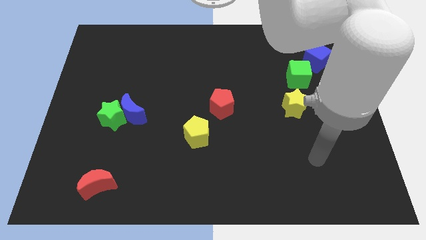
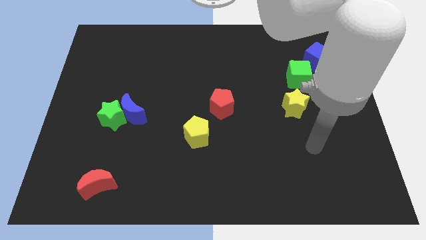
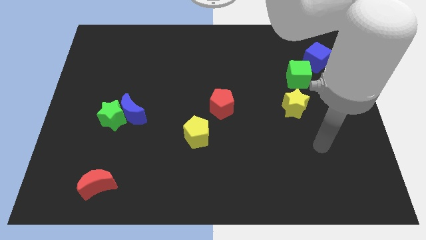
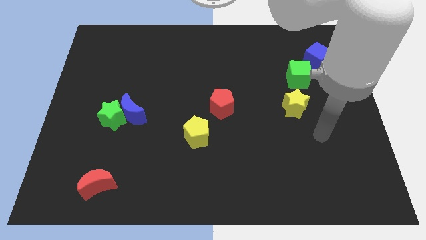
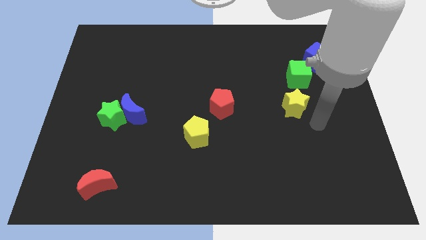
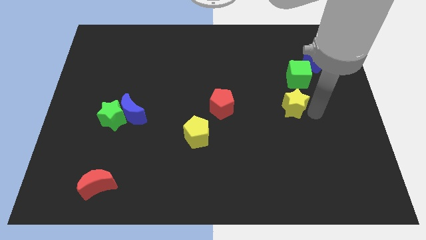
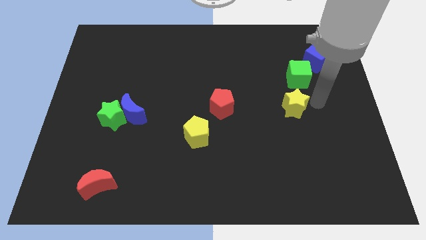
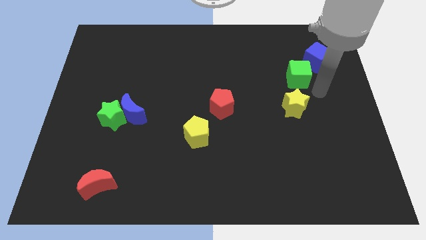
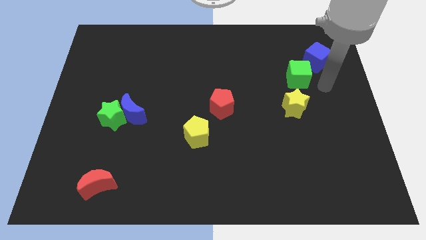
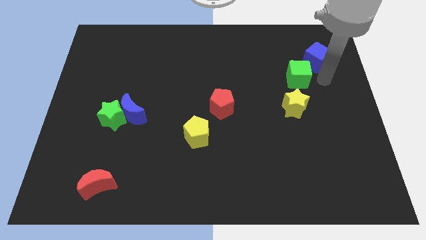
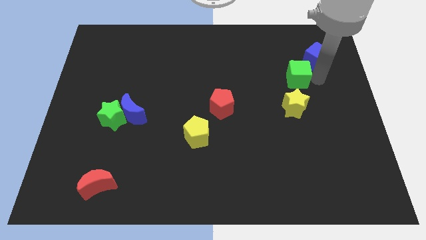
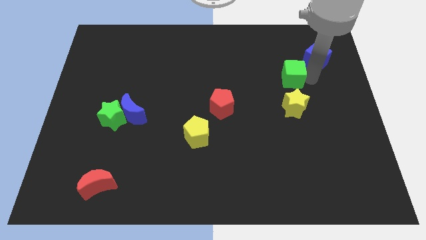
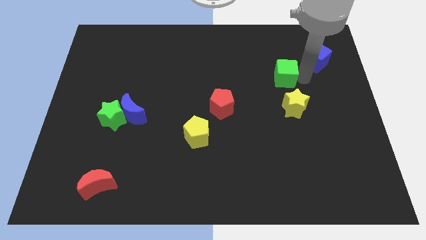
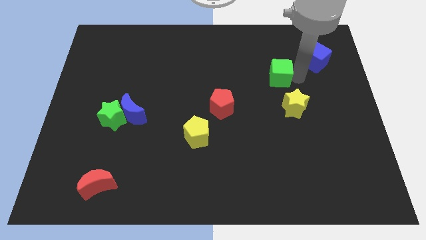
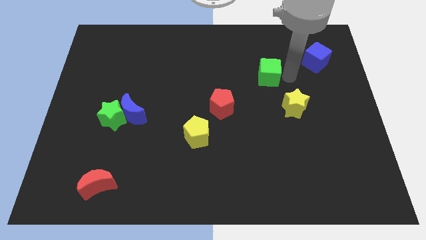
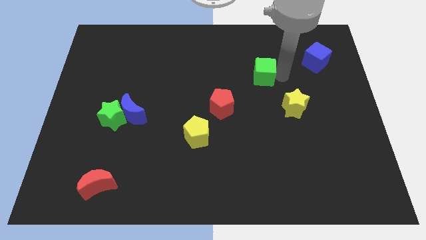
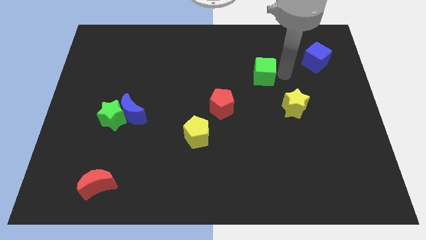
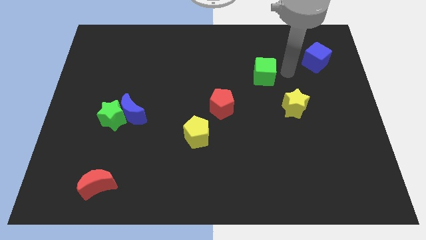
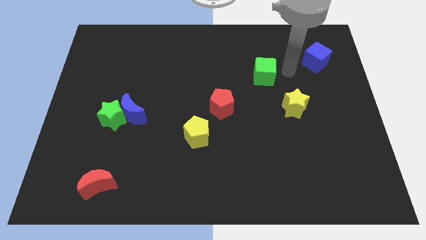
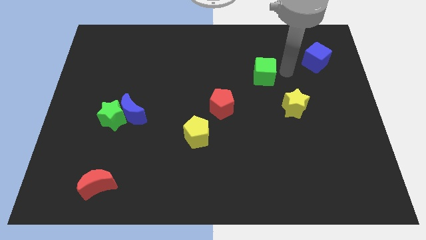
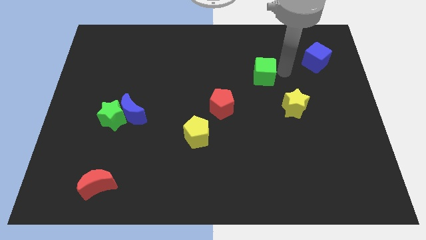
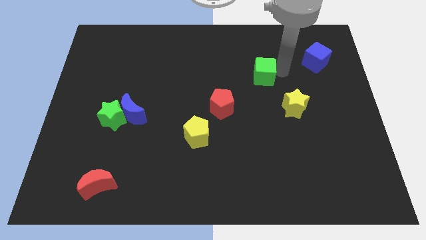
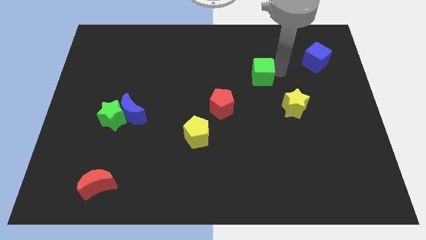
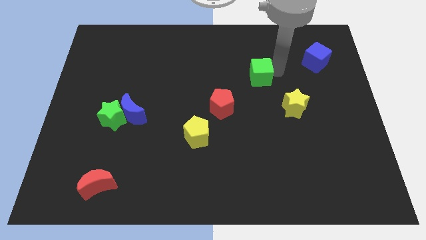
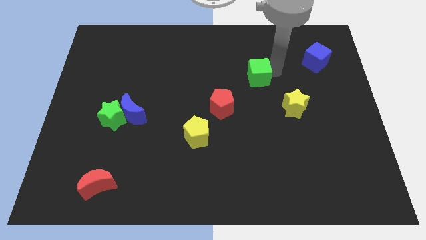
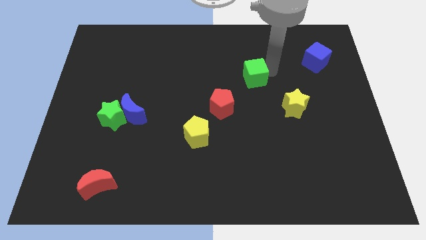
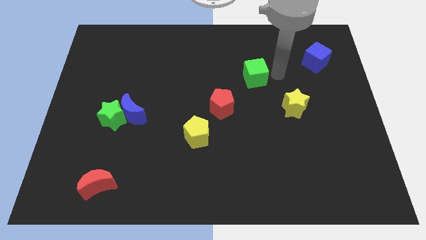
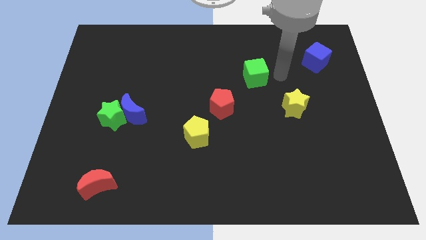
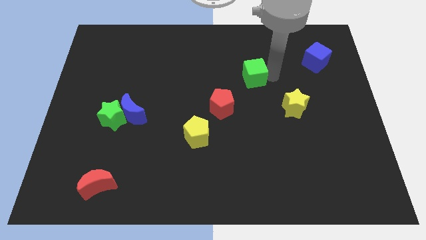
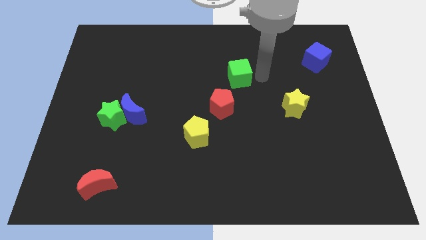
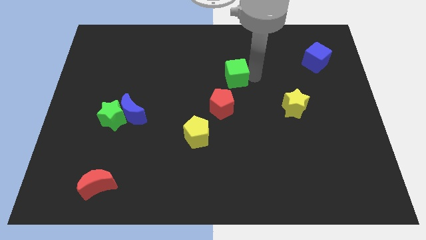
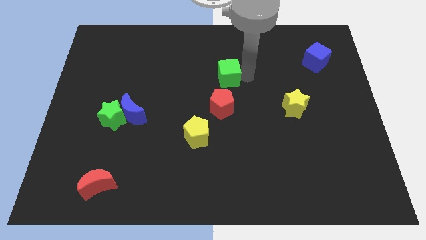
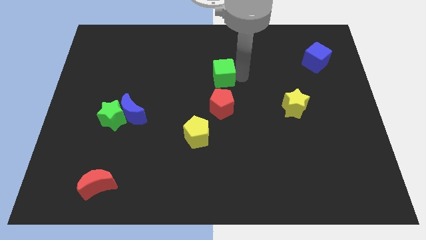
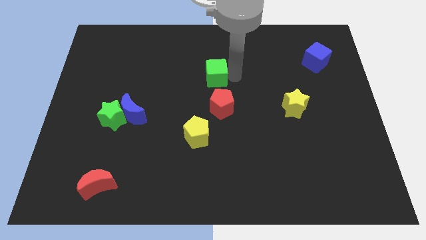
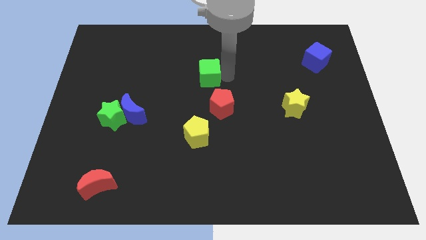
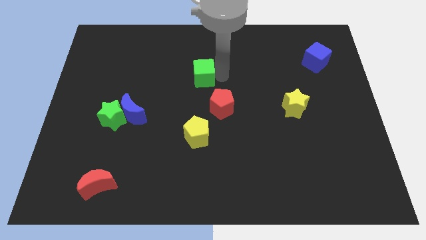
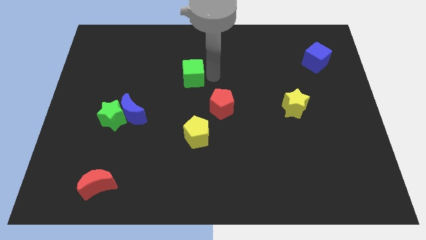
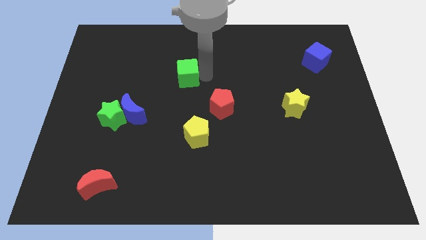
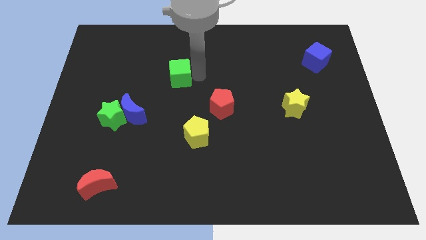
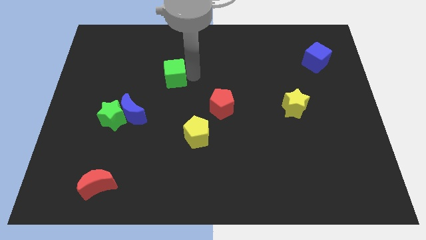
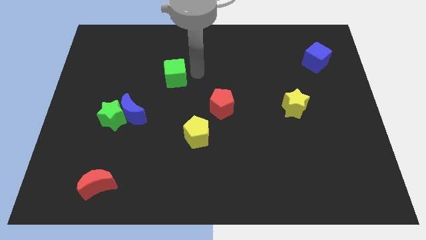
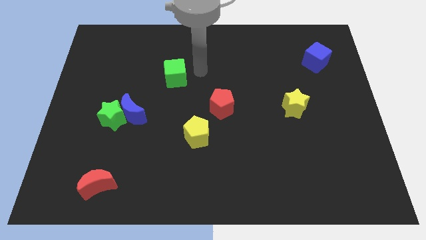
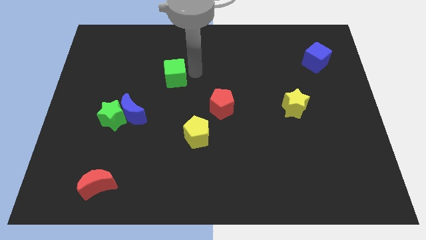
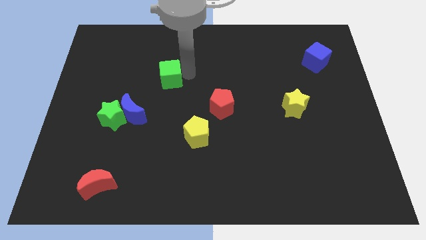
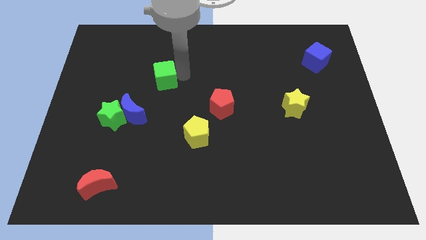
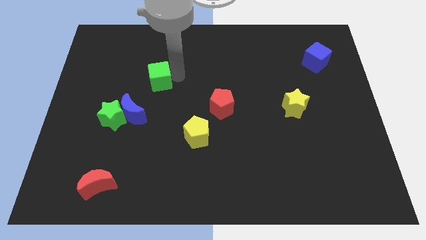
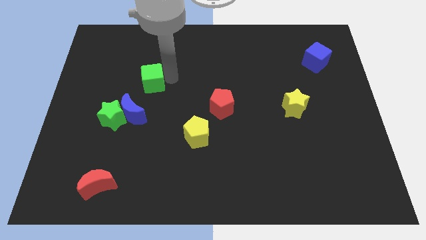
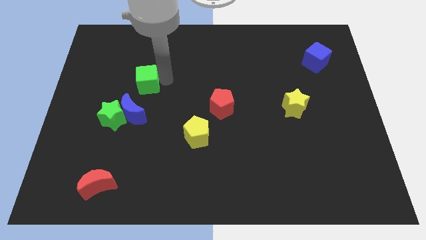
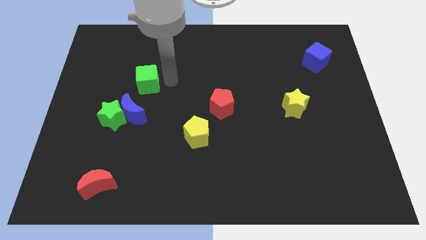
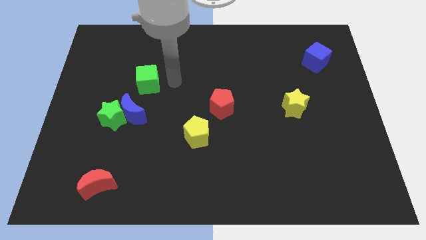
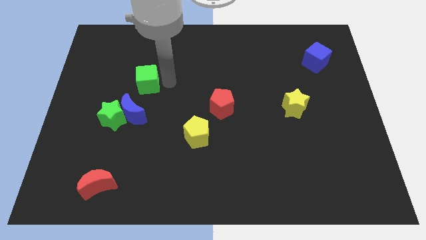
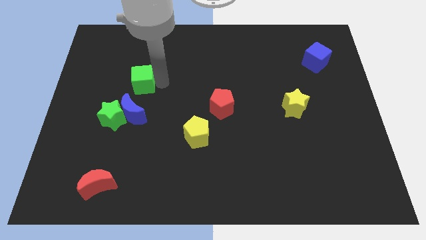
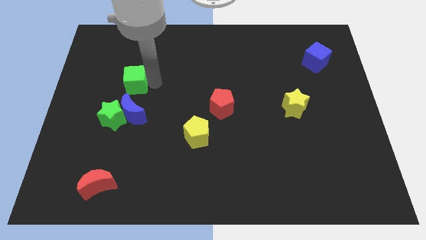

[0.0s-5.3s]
push the green cube above the green star

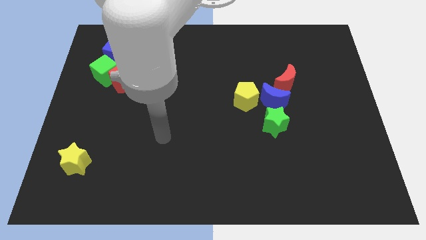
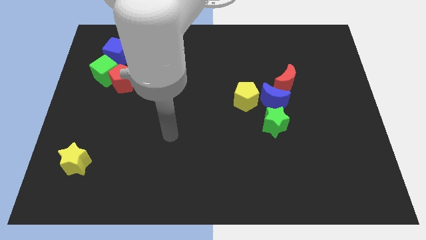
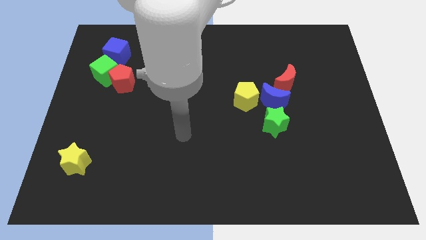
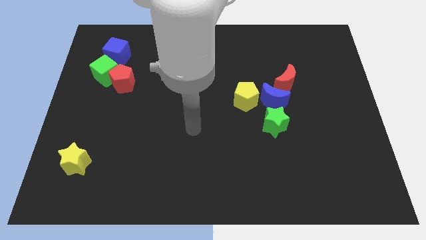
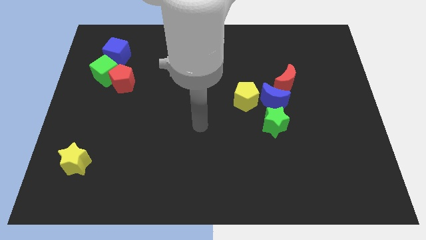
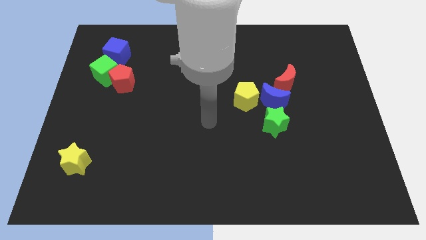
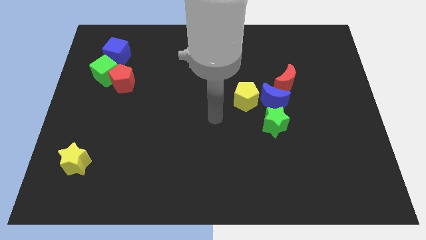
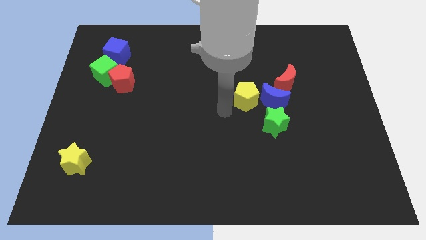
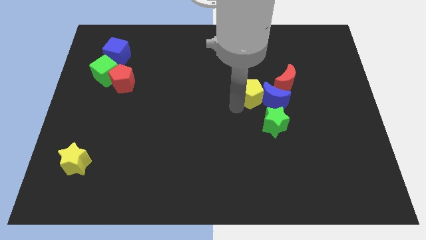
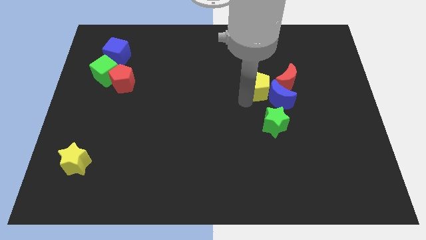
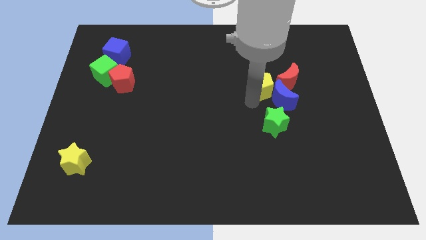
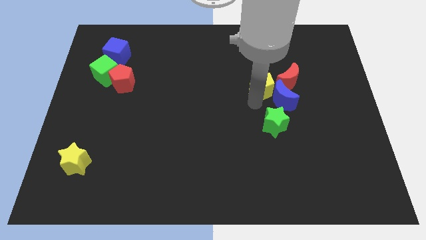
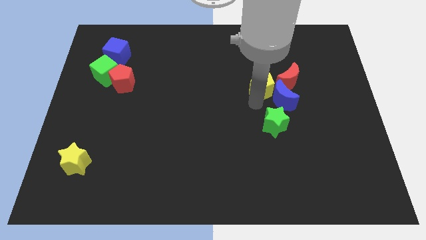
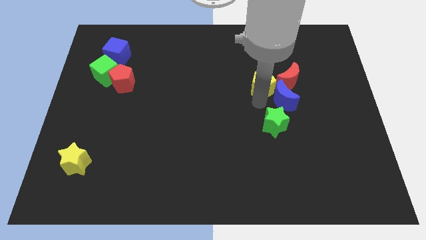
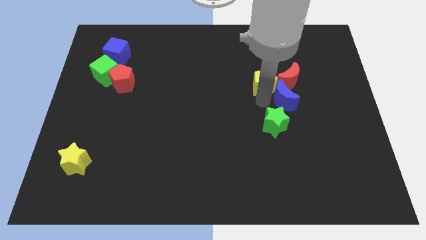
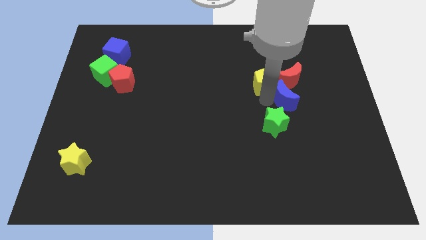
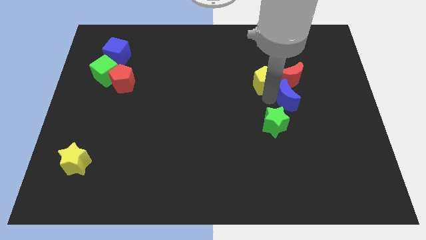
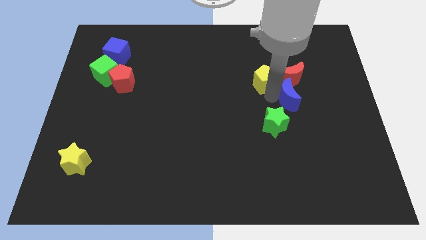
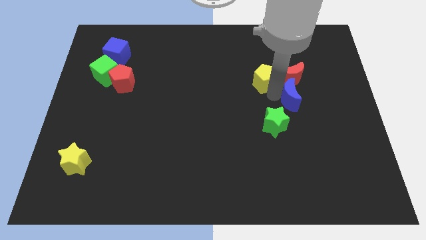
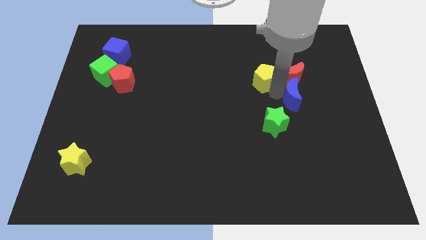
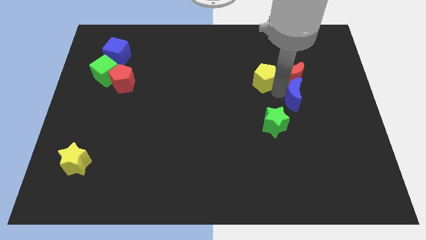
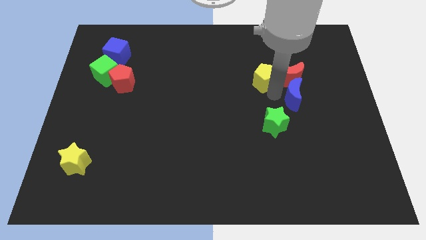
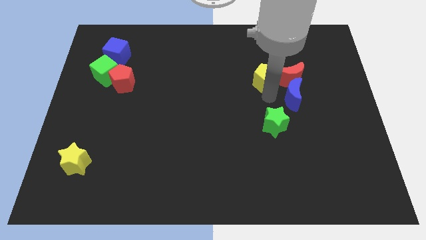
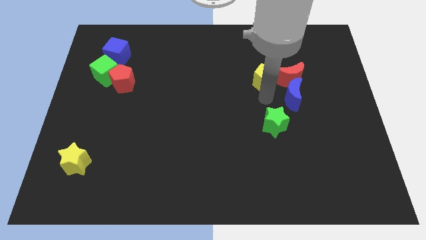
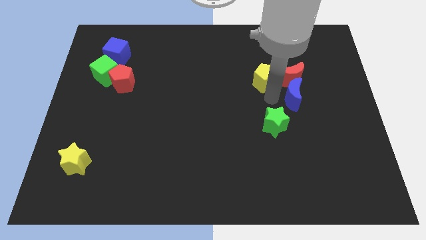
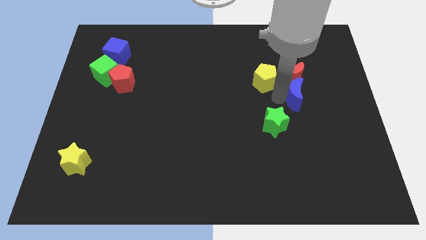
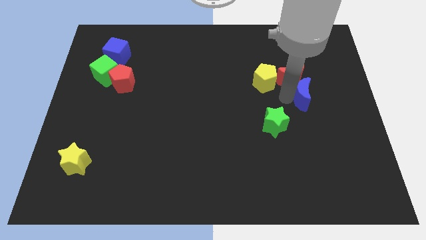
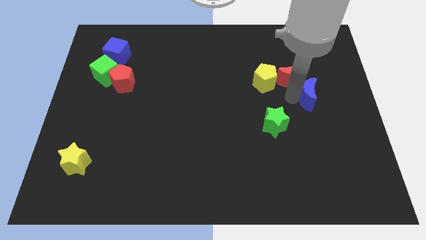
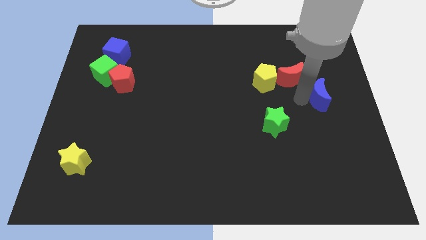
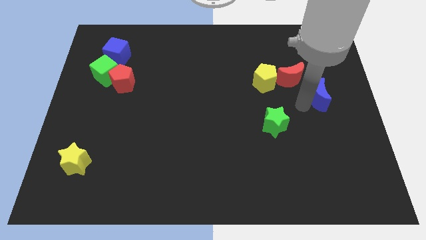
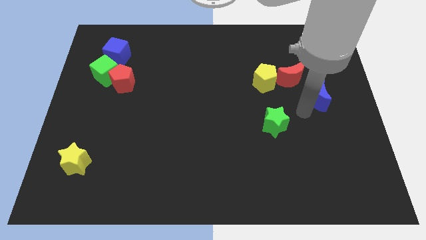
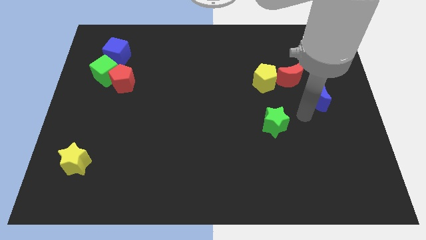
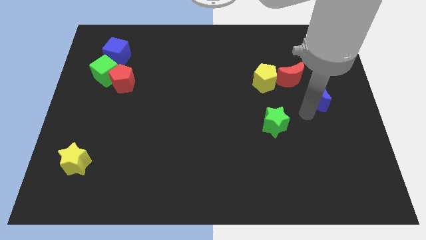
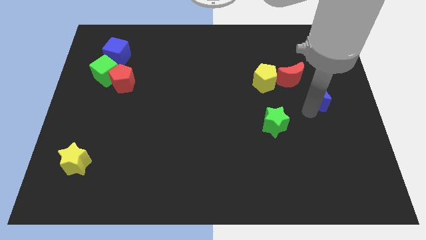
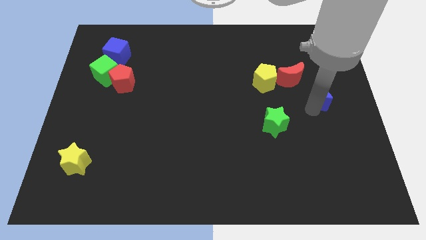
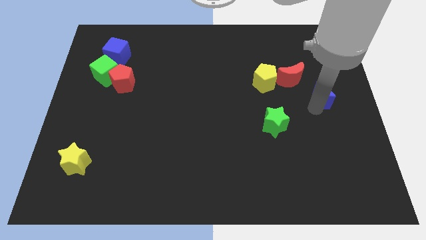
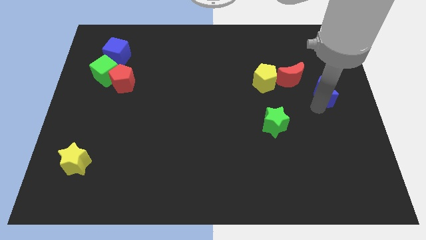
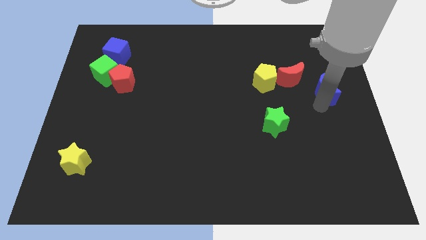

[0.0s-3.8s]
push the blue moon right of the red moon
